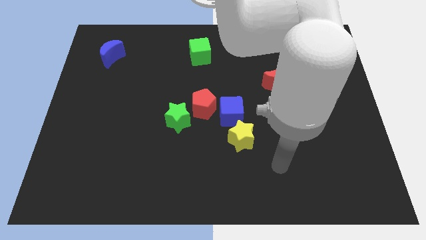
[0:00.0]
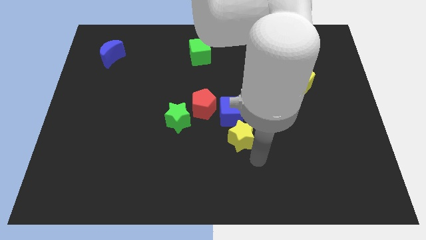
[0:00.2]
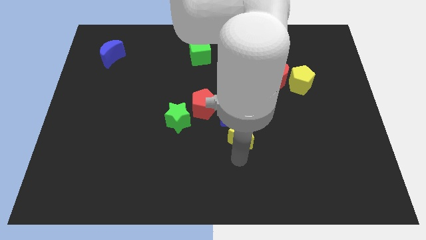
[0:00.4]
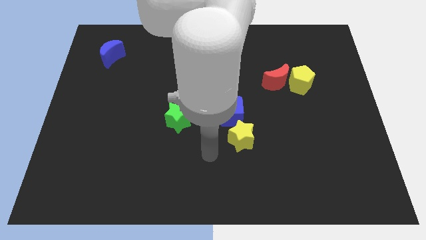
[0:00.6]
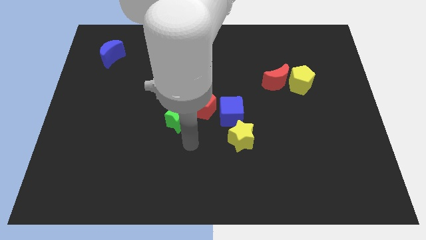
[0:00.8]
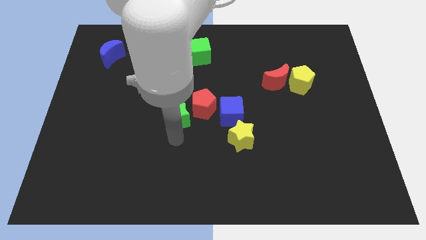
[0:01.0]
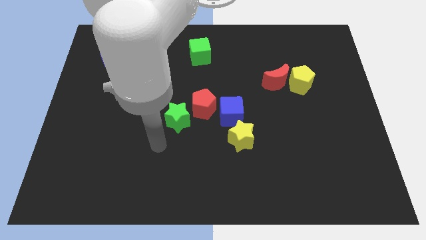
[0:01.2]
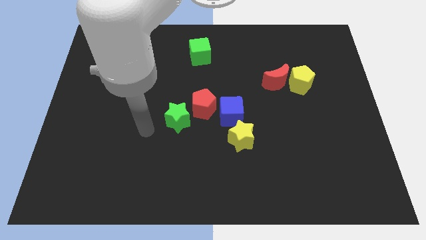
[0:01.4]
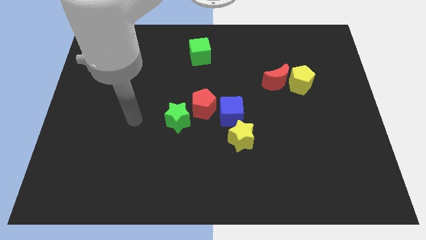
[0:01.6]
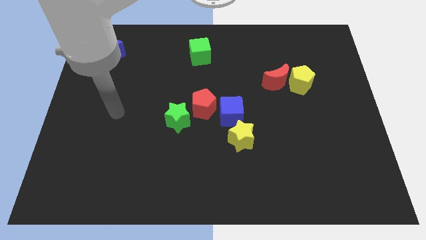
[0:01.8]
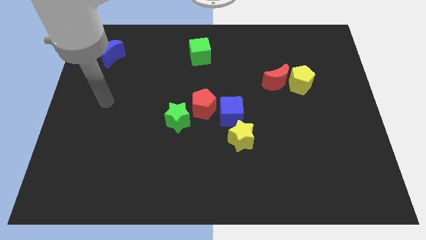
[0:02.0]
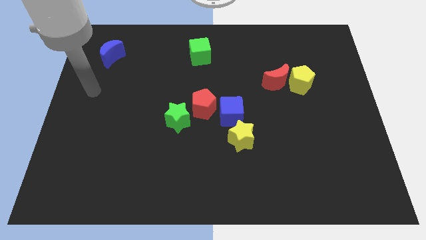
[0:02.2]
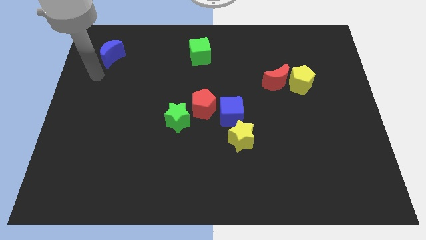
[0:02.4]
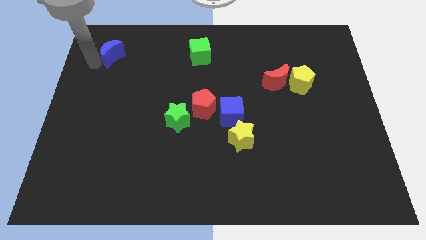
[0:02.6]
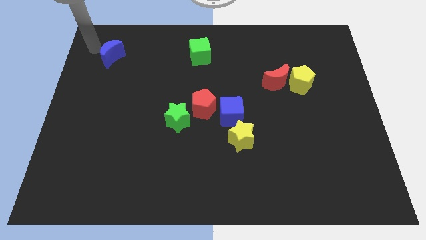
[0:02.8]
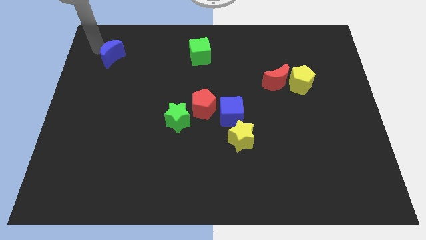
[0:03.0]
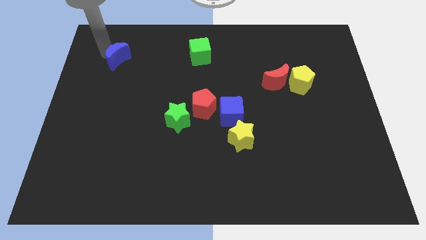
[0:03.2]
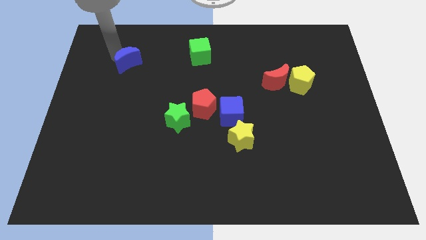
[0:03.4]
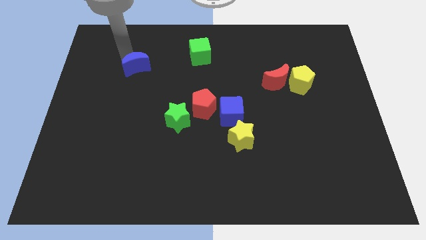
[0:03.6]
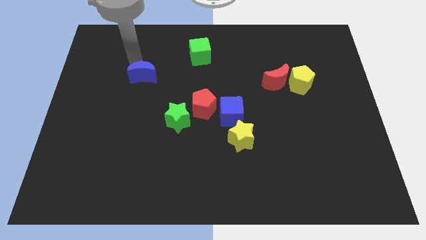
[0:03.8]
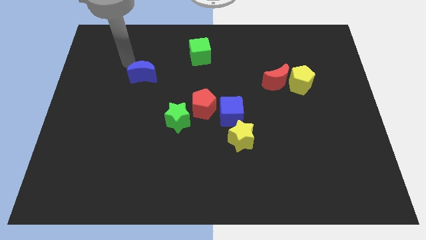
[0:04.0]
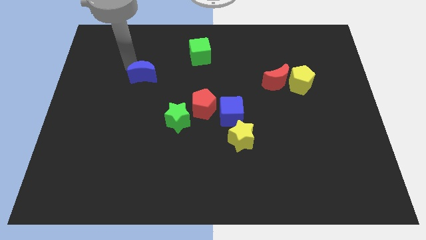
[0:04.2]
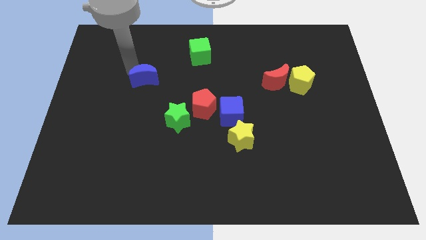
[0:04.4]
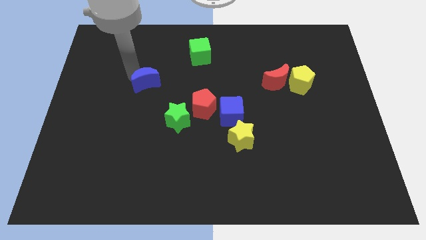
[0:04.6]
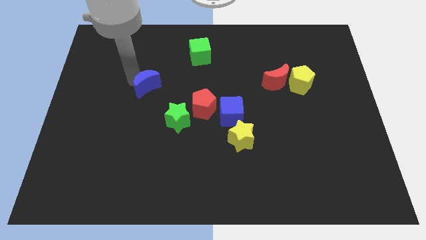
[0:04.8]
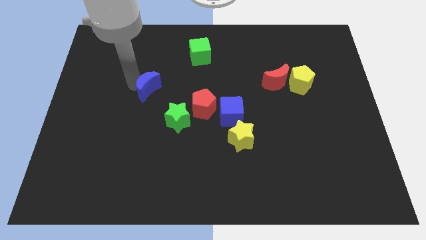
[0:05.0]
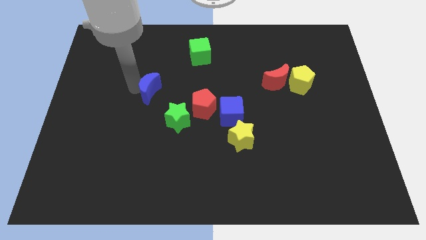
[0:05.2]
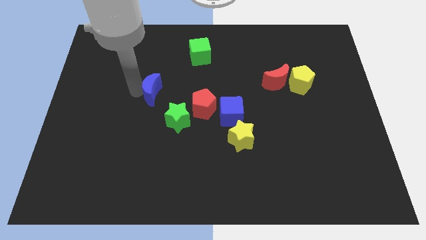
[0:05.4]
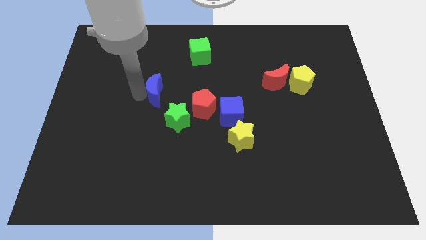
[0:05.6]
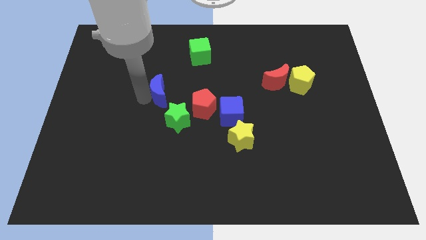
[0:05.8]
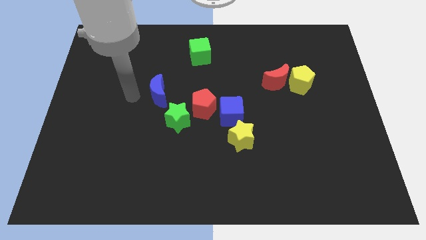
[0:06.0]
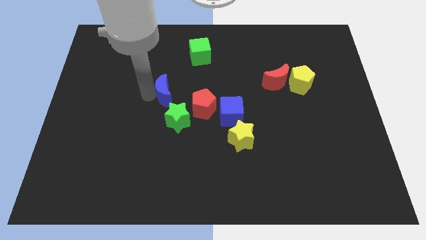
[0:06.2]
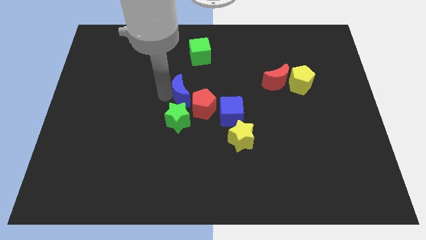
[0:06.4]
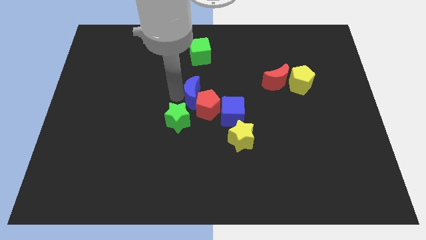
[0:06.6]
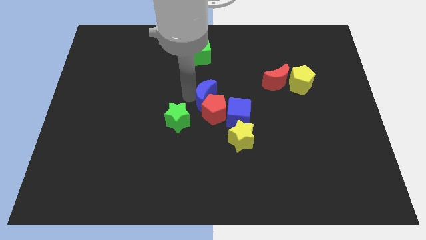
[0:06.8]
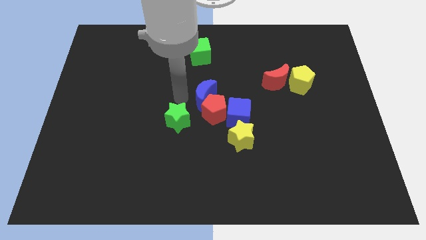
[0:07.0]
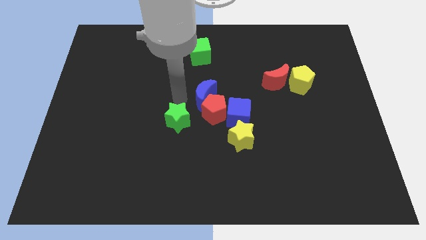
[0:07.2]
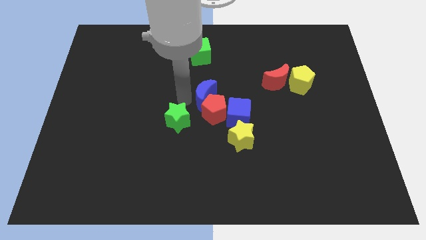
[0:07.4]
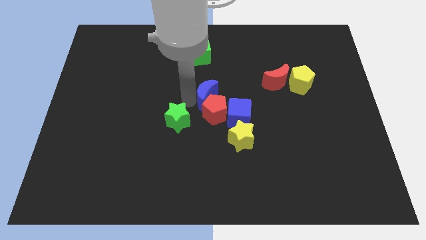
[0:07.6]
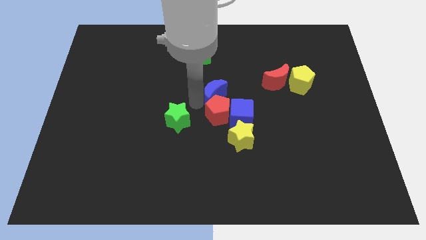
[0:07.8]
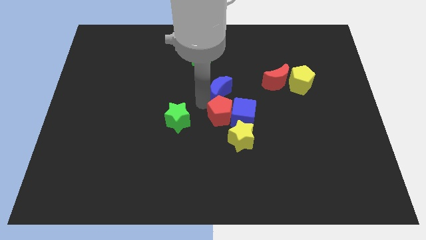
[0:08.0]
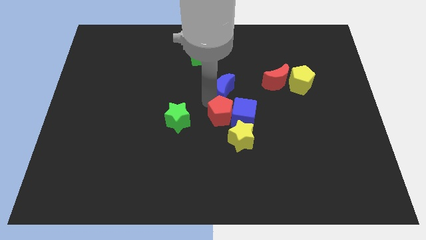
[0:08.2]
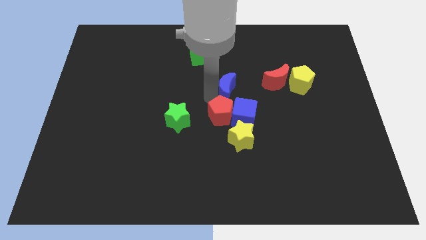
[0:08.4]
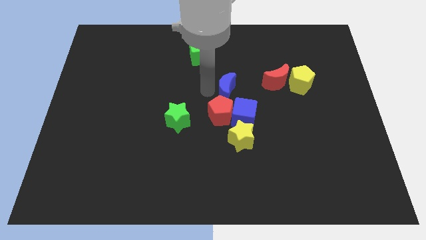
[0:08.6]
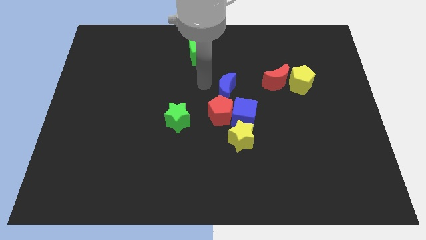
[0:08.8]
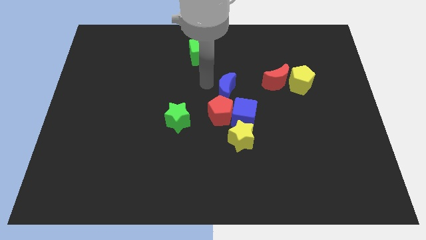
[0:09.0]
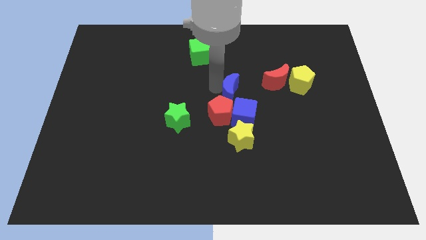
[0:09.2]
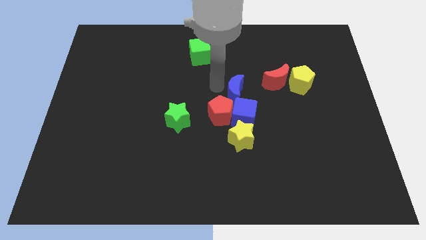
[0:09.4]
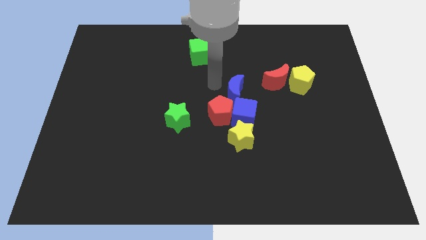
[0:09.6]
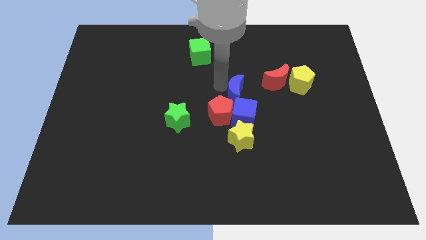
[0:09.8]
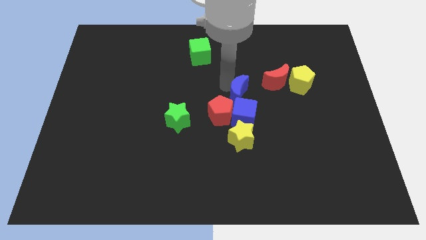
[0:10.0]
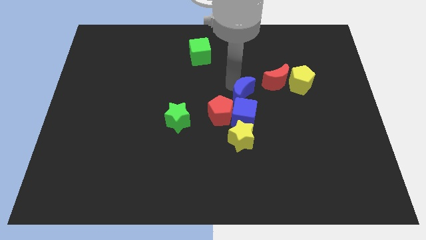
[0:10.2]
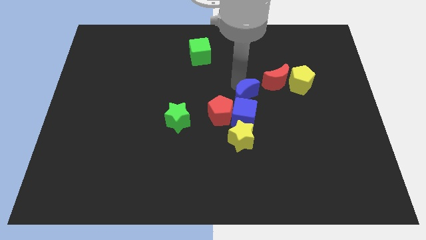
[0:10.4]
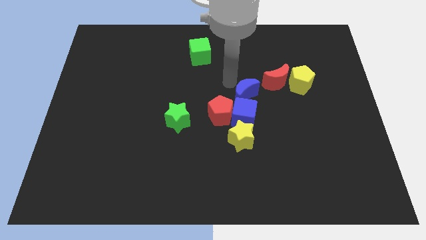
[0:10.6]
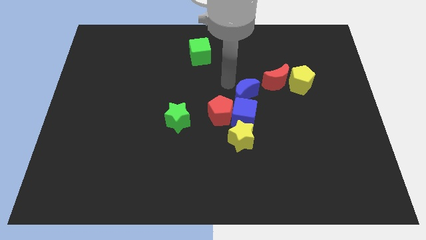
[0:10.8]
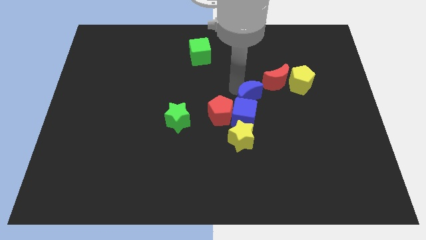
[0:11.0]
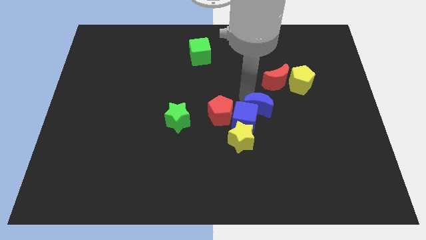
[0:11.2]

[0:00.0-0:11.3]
put the blue moon just right of the blue cube

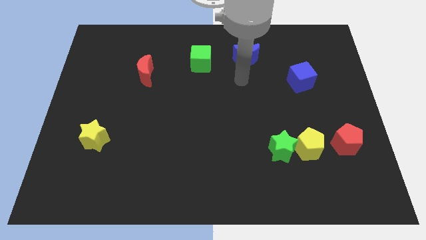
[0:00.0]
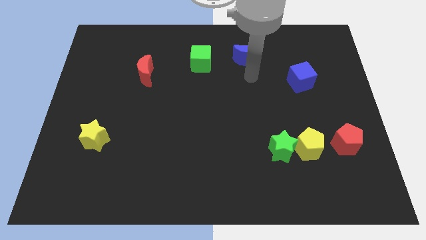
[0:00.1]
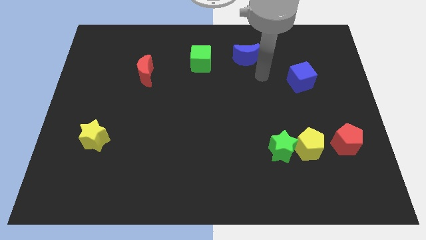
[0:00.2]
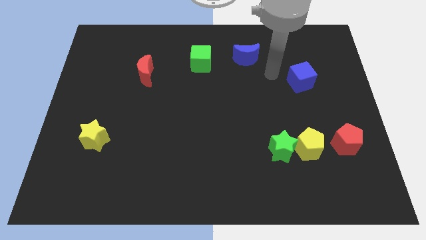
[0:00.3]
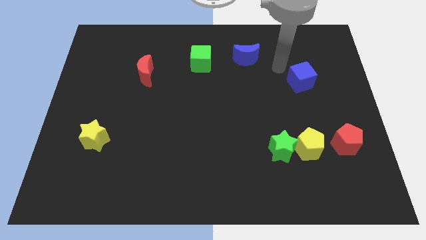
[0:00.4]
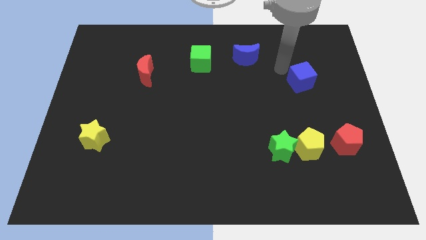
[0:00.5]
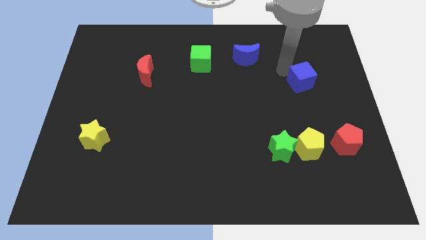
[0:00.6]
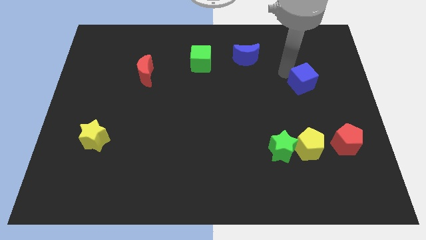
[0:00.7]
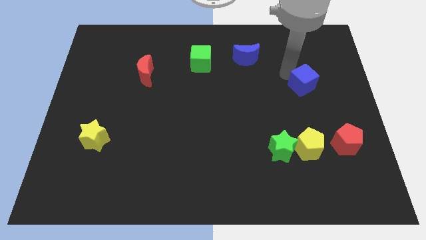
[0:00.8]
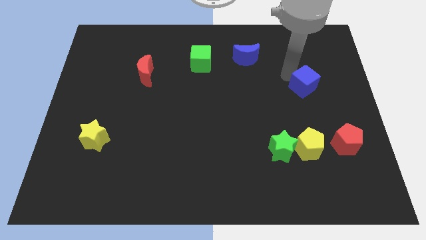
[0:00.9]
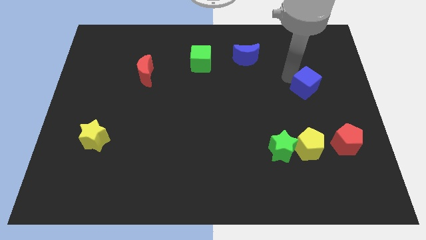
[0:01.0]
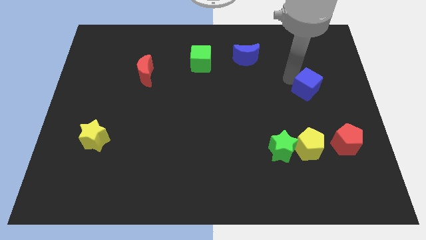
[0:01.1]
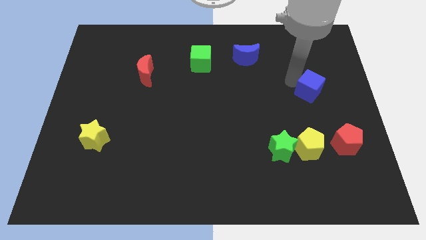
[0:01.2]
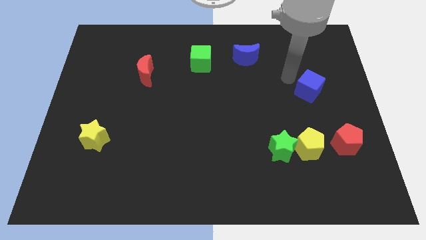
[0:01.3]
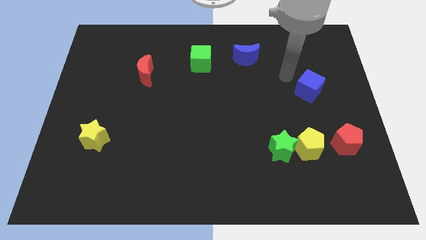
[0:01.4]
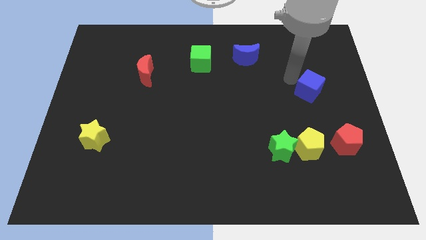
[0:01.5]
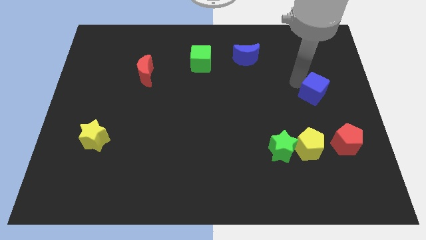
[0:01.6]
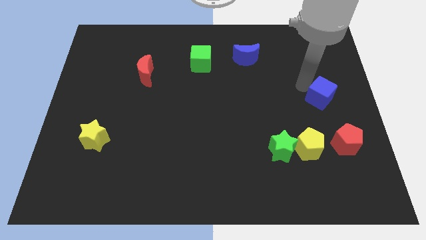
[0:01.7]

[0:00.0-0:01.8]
move the blue cube above the red pentagon
